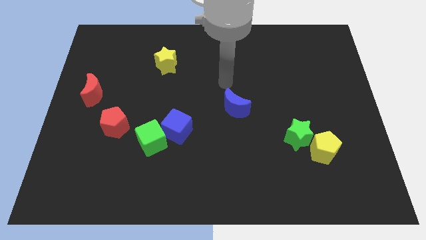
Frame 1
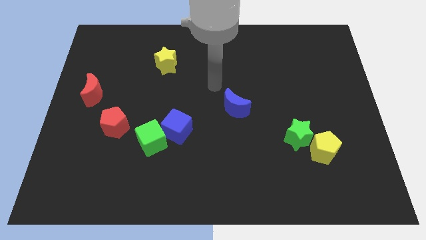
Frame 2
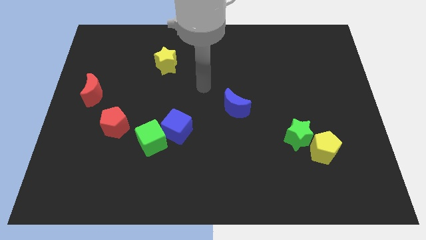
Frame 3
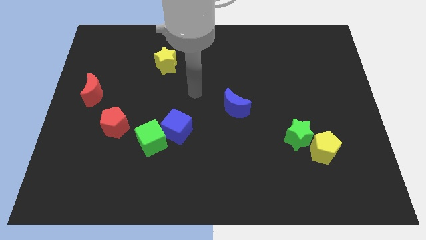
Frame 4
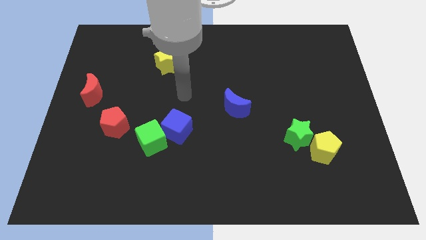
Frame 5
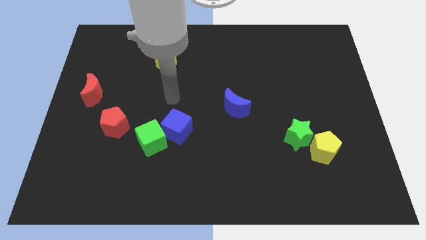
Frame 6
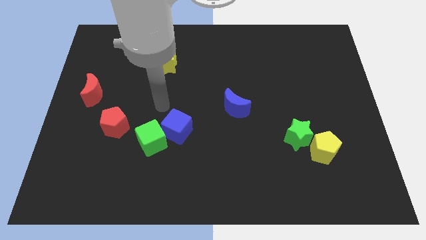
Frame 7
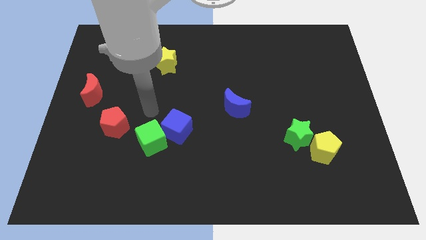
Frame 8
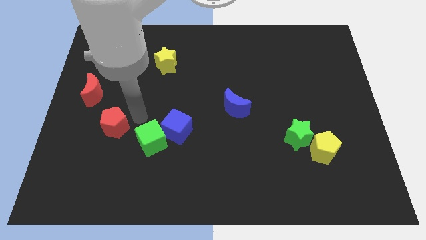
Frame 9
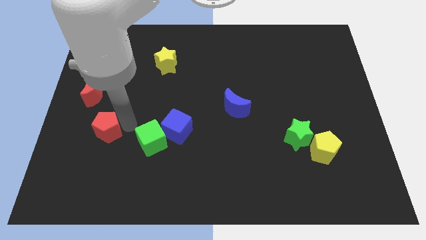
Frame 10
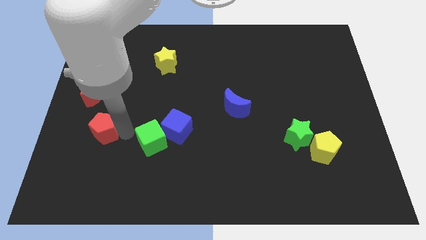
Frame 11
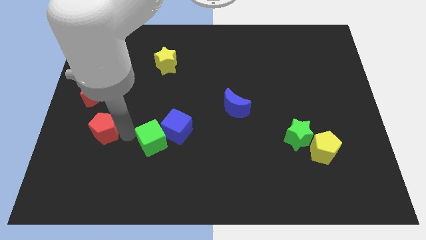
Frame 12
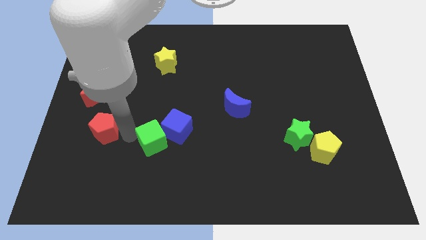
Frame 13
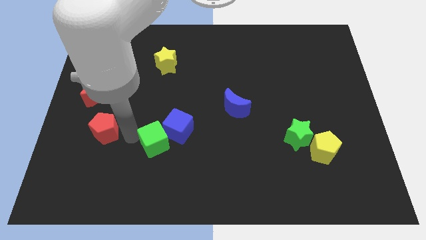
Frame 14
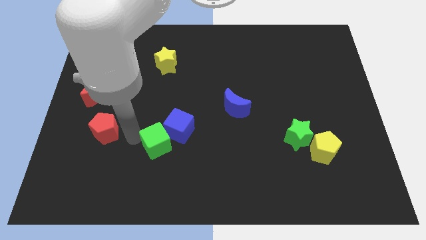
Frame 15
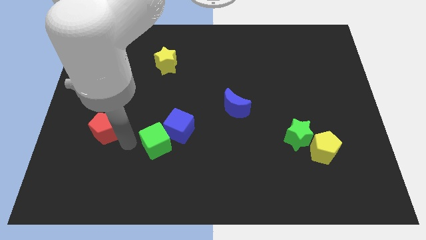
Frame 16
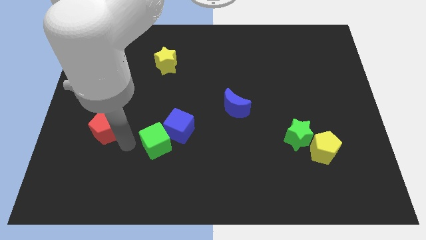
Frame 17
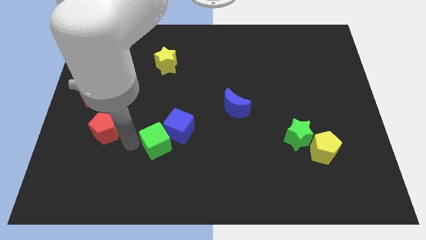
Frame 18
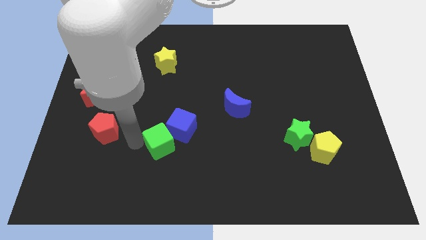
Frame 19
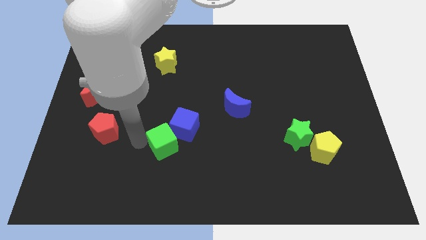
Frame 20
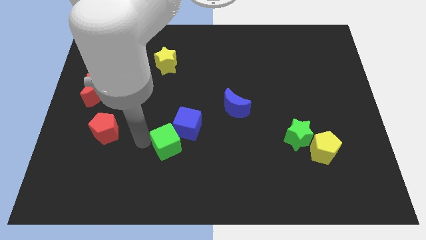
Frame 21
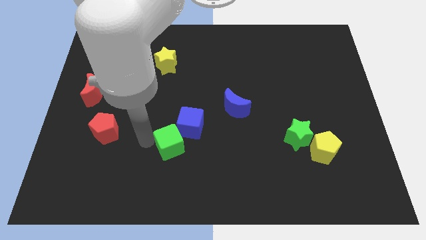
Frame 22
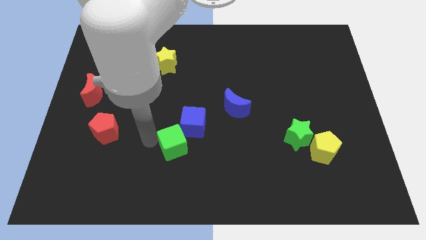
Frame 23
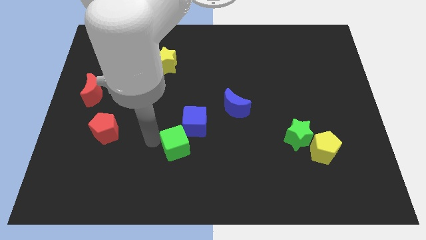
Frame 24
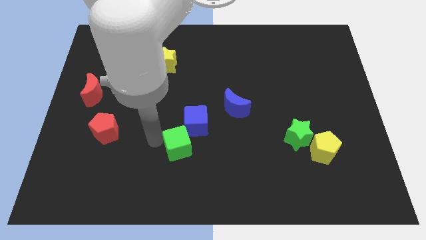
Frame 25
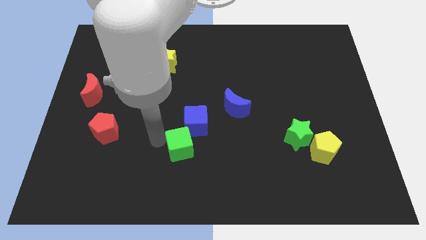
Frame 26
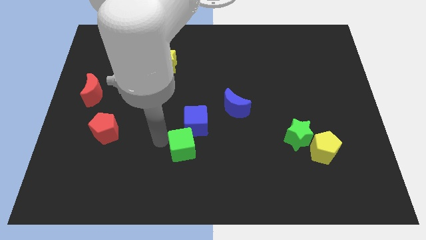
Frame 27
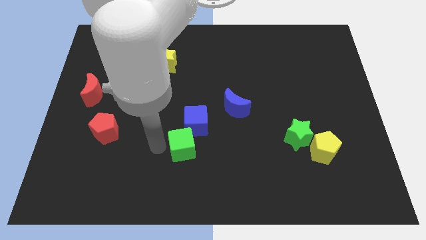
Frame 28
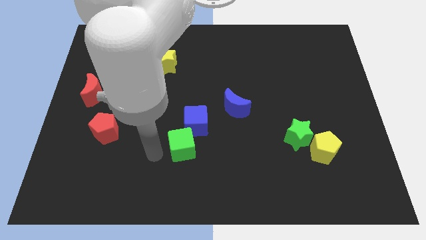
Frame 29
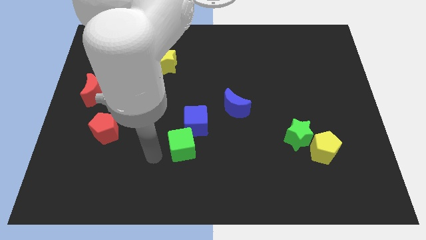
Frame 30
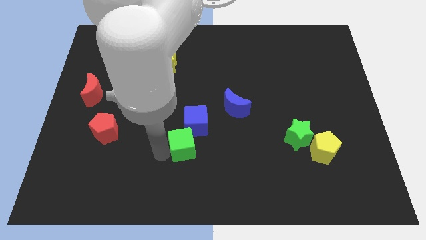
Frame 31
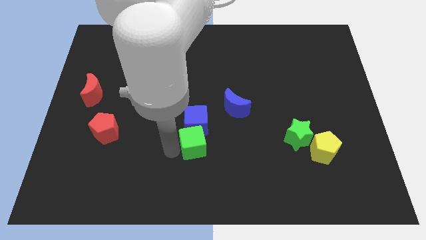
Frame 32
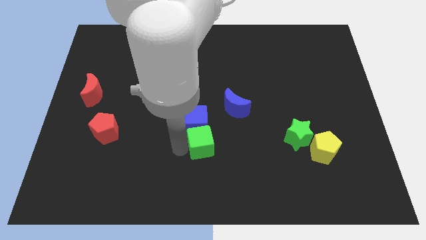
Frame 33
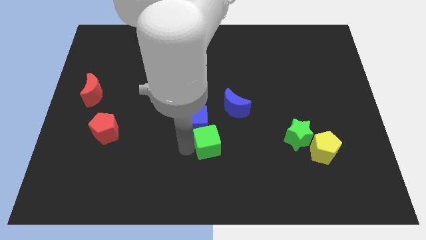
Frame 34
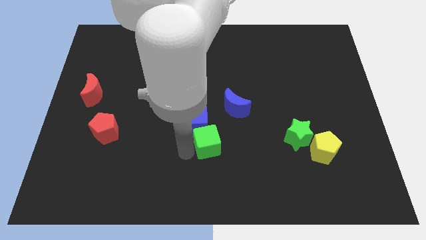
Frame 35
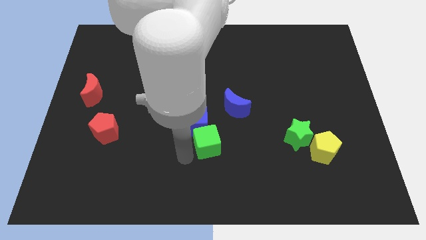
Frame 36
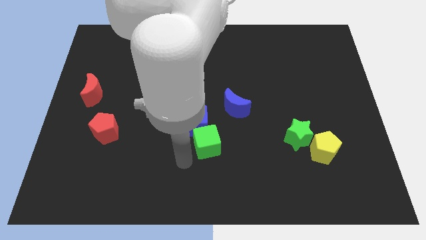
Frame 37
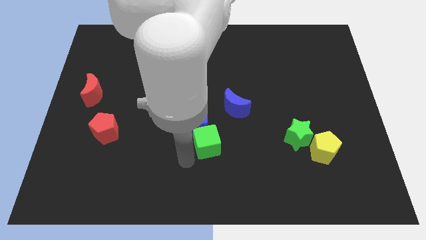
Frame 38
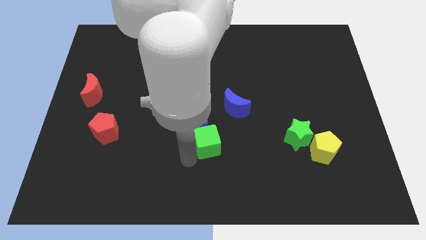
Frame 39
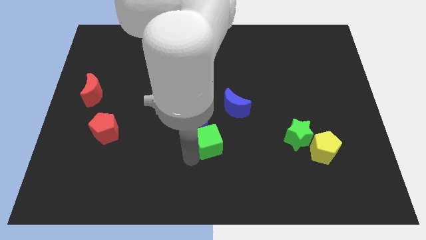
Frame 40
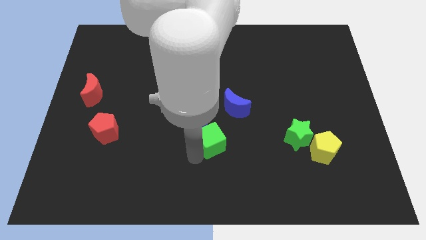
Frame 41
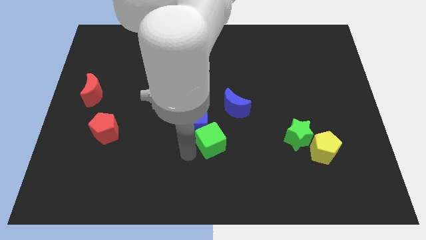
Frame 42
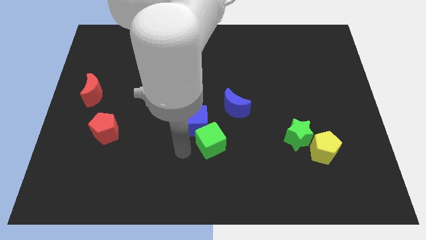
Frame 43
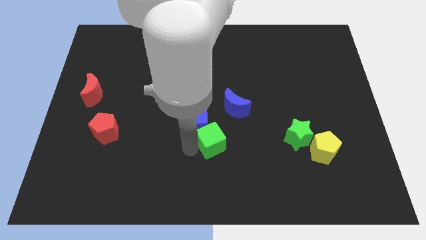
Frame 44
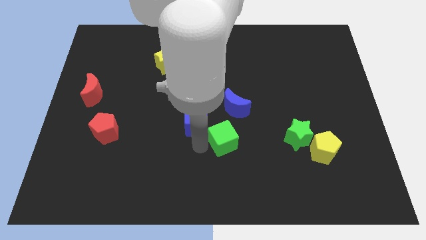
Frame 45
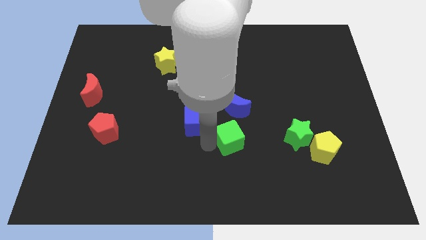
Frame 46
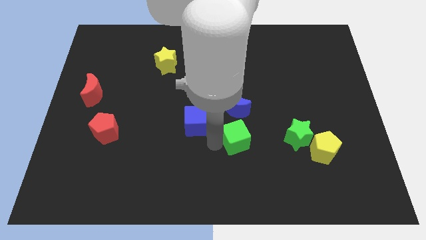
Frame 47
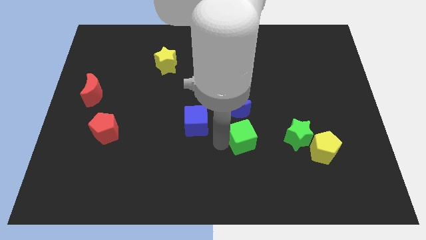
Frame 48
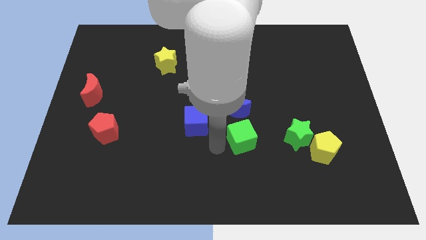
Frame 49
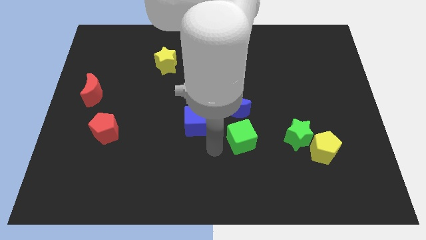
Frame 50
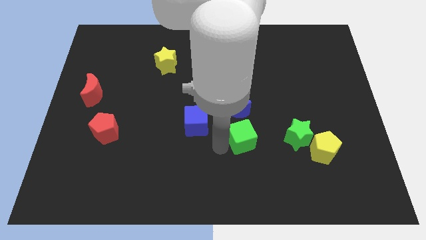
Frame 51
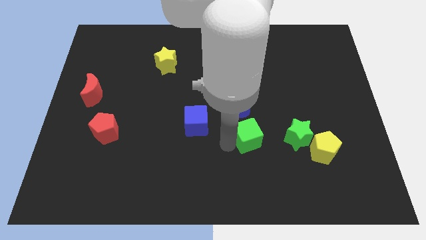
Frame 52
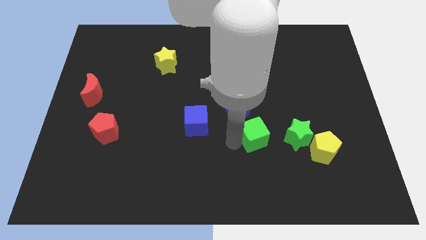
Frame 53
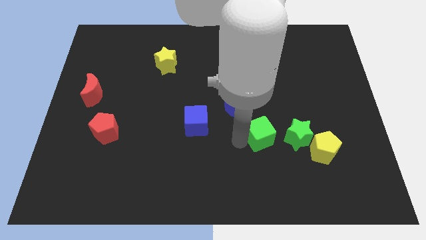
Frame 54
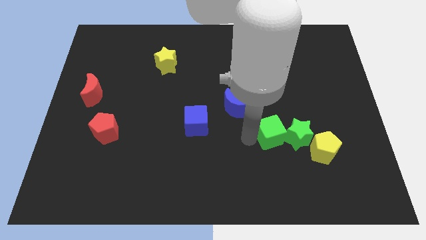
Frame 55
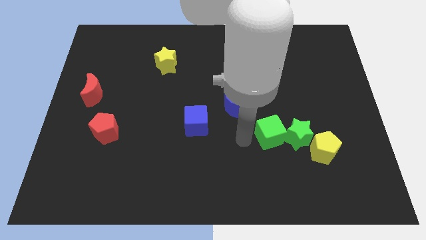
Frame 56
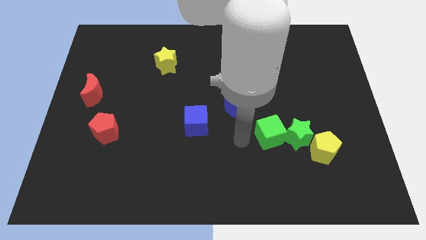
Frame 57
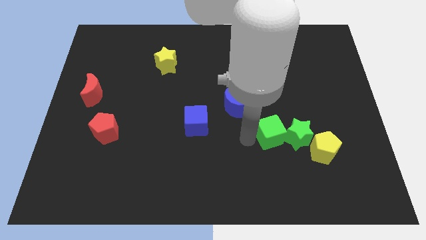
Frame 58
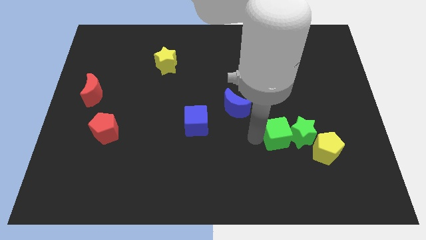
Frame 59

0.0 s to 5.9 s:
move the green cube to the top left side of the yellow pentagon

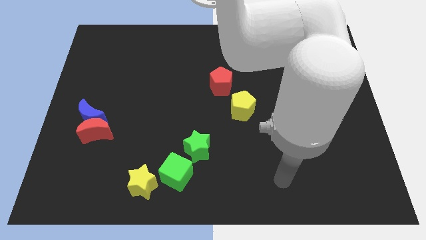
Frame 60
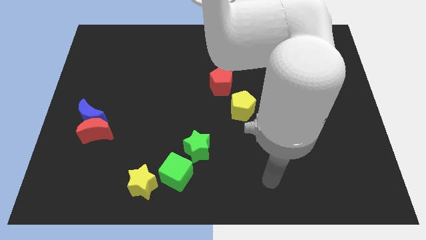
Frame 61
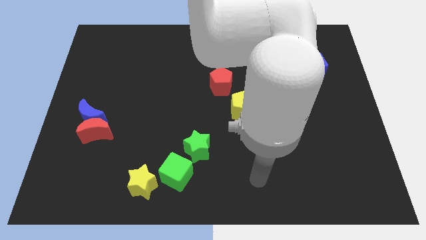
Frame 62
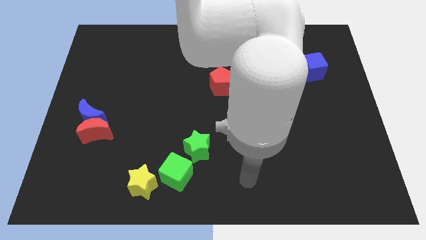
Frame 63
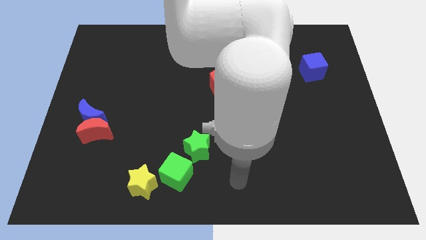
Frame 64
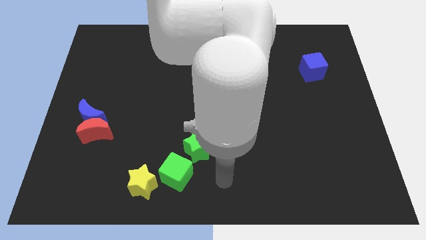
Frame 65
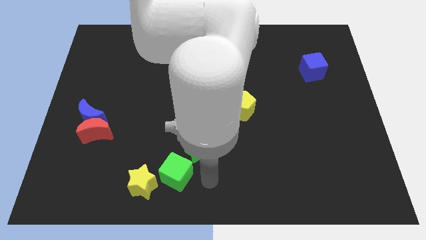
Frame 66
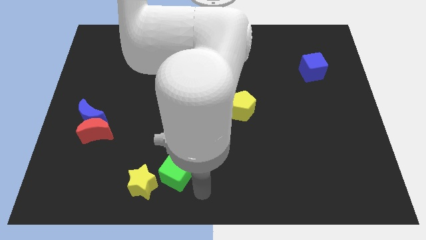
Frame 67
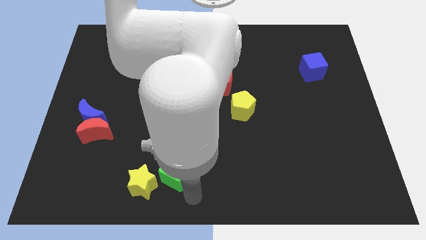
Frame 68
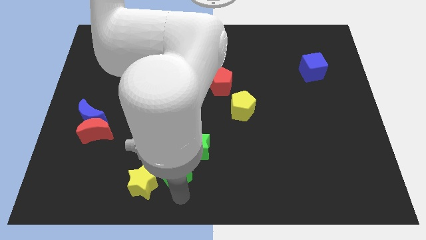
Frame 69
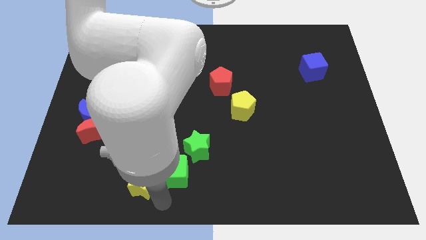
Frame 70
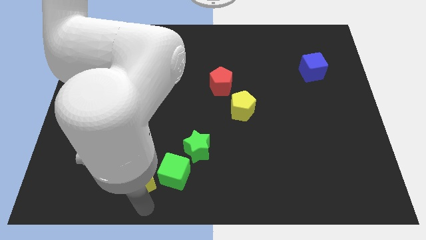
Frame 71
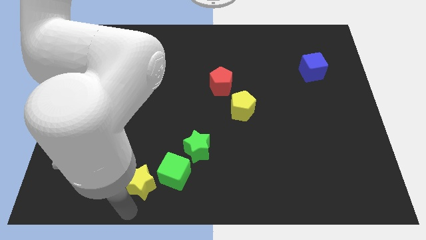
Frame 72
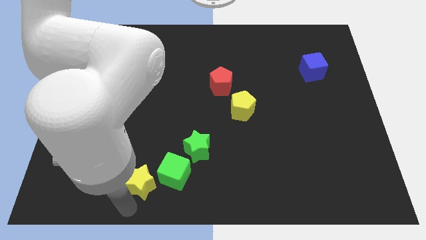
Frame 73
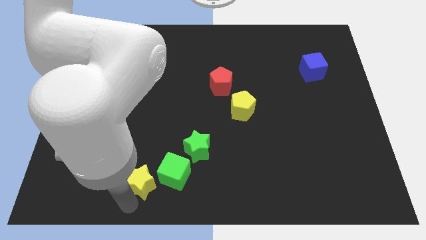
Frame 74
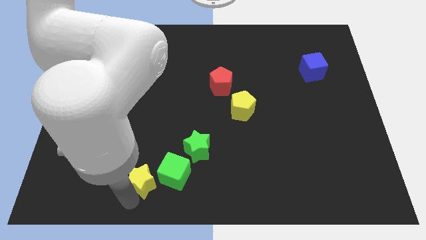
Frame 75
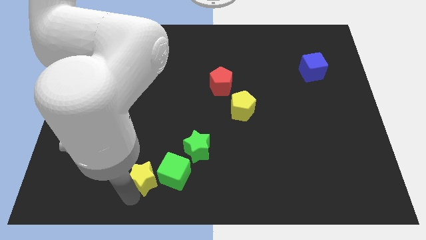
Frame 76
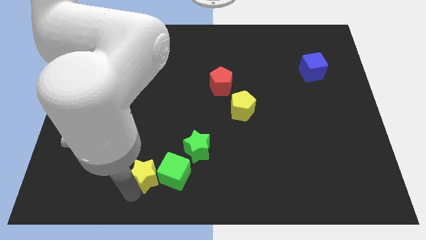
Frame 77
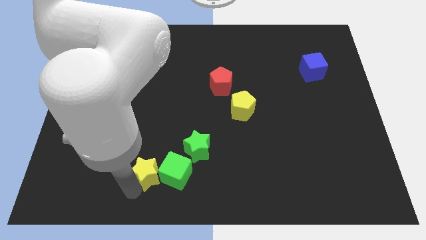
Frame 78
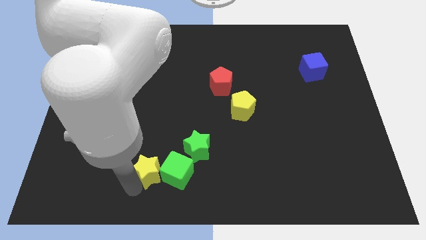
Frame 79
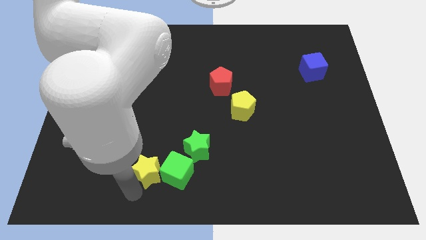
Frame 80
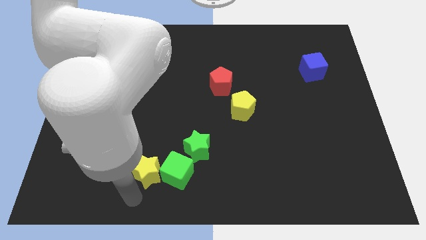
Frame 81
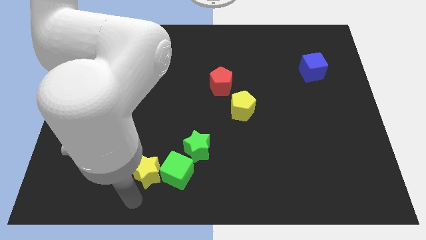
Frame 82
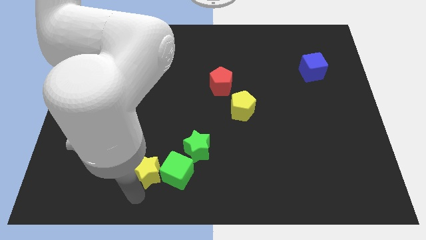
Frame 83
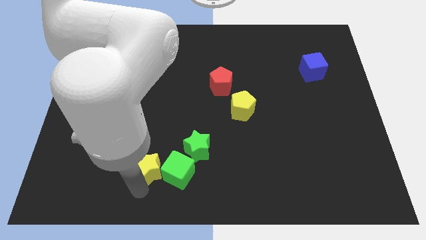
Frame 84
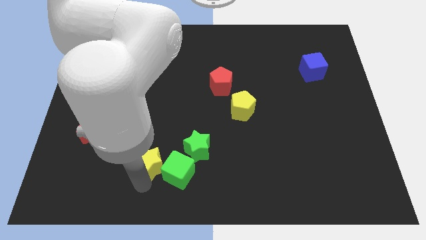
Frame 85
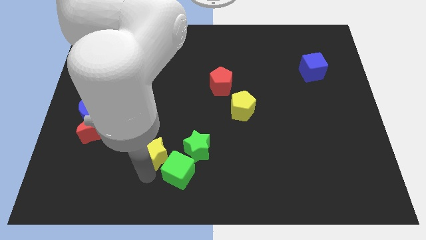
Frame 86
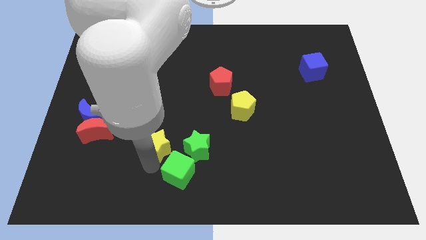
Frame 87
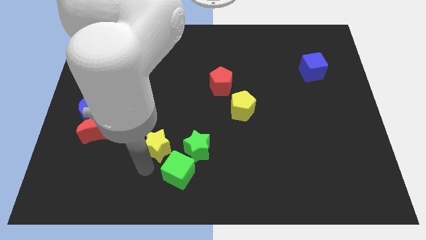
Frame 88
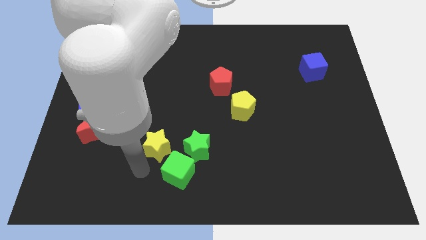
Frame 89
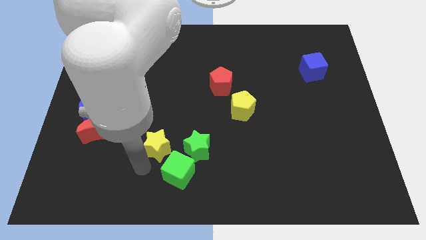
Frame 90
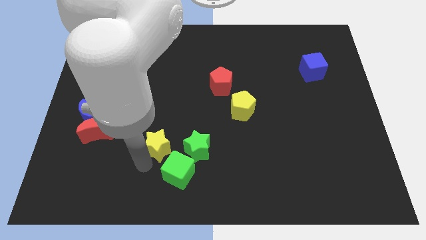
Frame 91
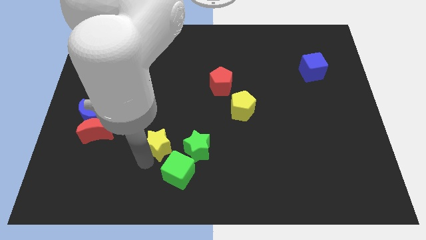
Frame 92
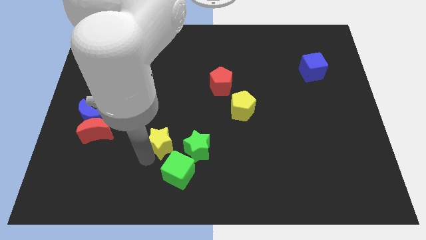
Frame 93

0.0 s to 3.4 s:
move the yellow star to the top left of the green star
